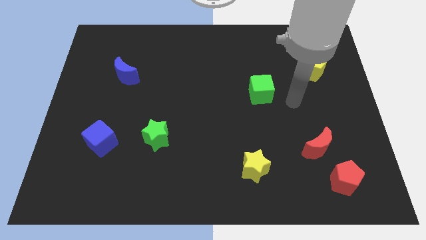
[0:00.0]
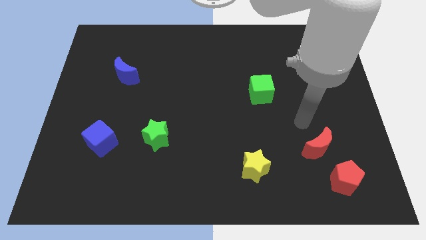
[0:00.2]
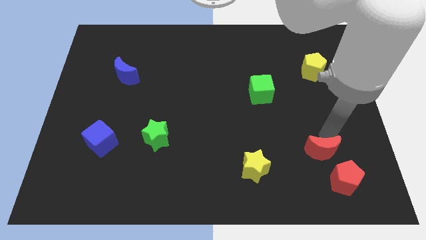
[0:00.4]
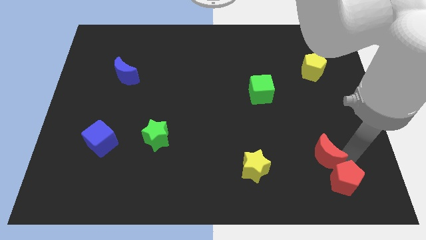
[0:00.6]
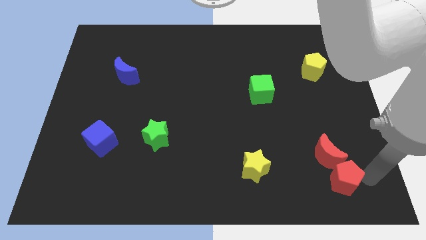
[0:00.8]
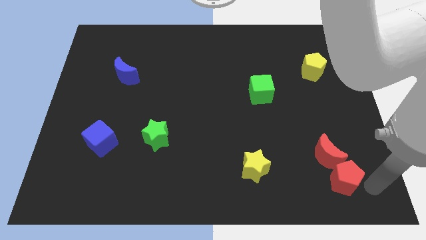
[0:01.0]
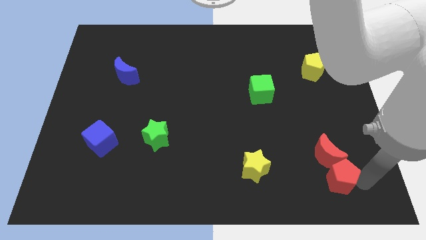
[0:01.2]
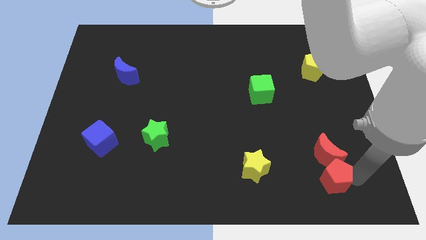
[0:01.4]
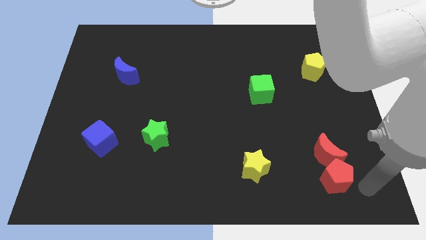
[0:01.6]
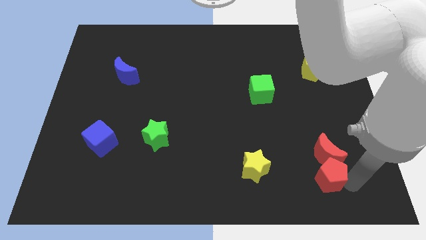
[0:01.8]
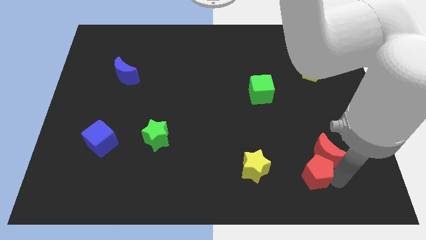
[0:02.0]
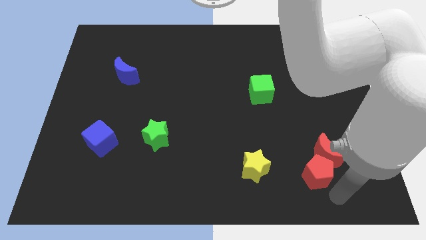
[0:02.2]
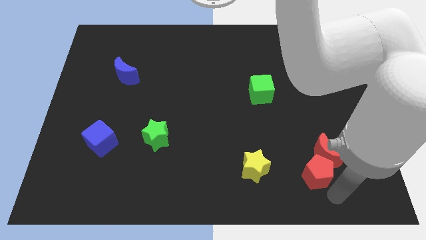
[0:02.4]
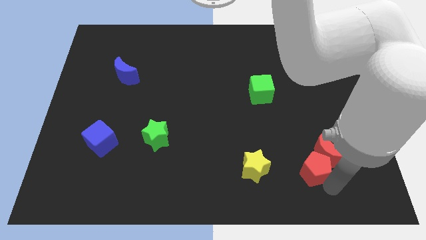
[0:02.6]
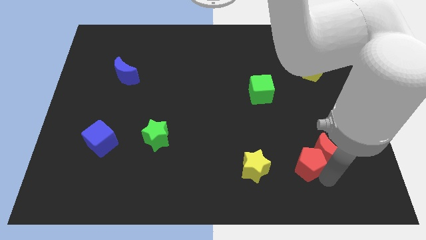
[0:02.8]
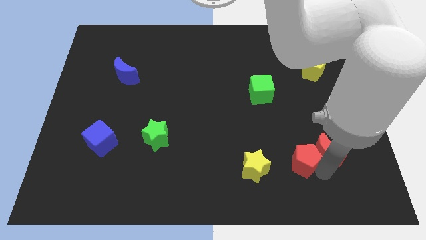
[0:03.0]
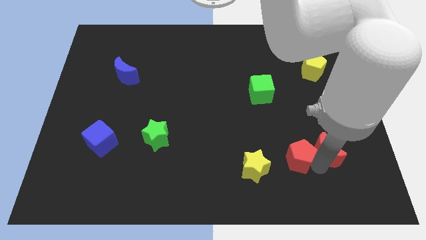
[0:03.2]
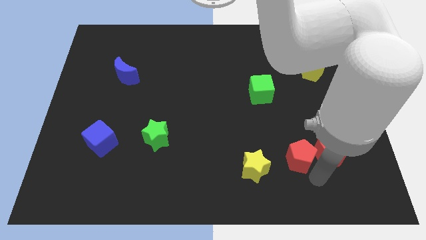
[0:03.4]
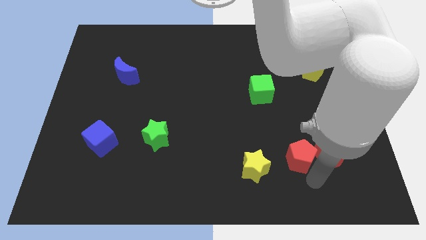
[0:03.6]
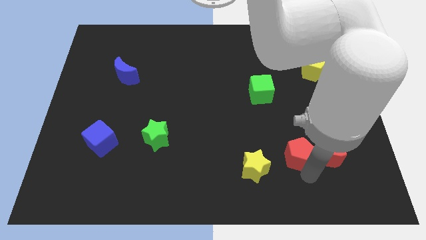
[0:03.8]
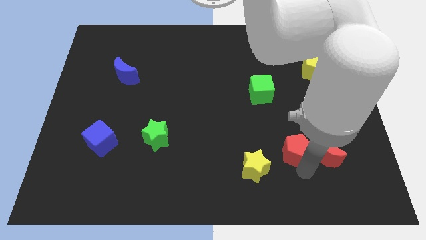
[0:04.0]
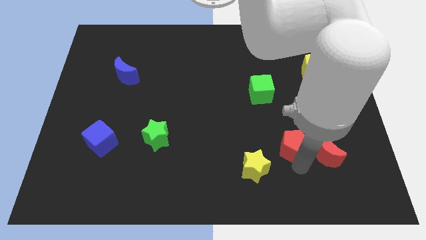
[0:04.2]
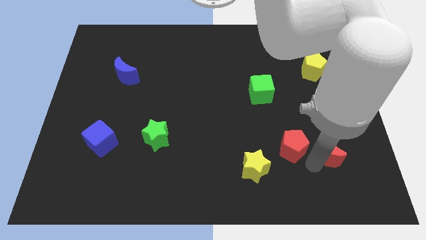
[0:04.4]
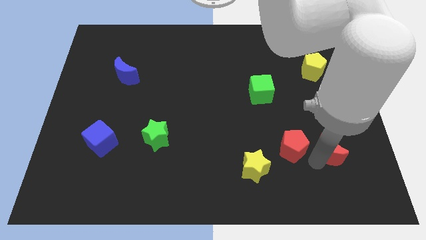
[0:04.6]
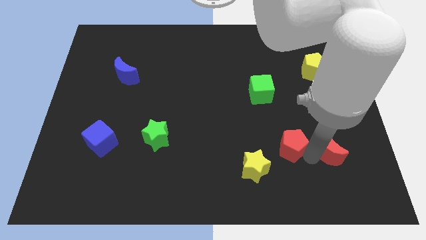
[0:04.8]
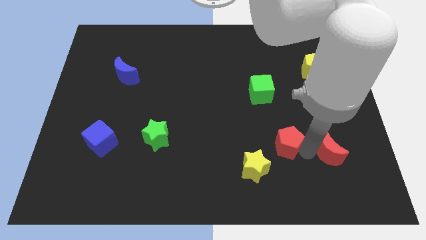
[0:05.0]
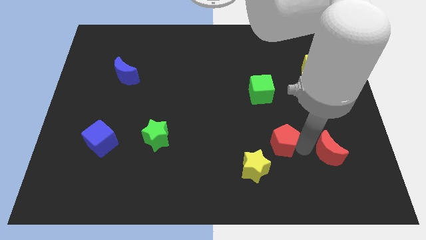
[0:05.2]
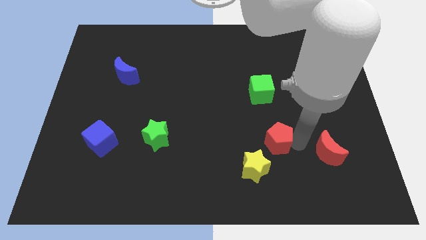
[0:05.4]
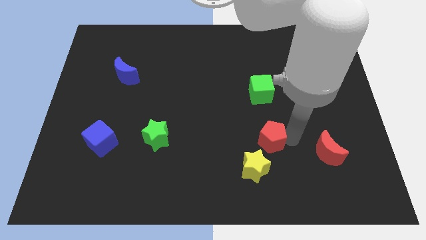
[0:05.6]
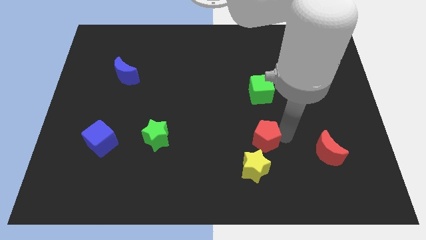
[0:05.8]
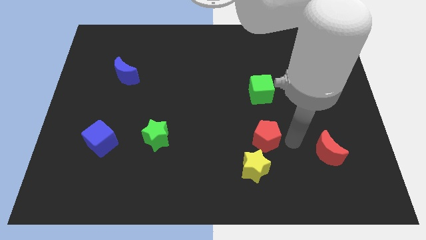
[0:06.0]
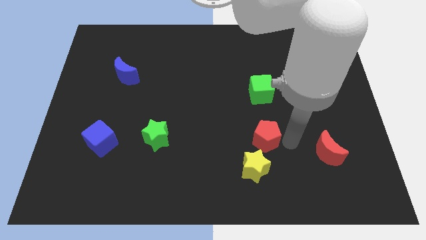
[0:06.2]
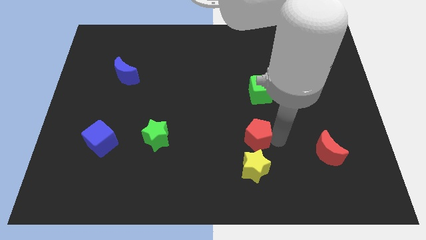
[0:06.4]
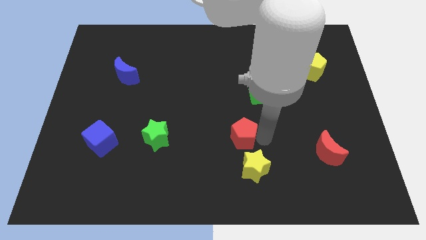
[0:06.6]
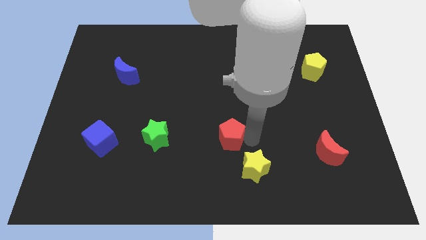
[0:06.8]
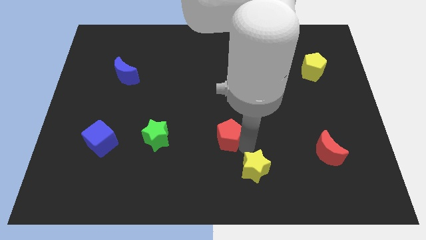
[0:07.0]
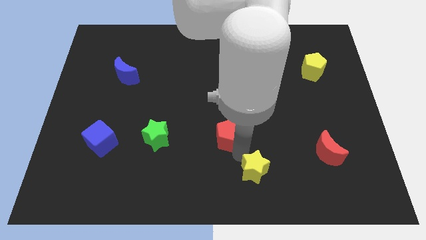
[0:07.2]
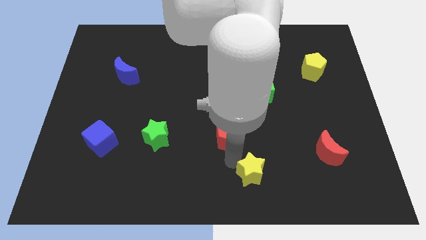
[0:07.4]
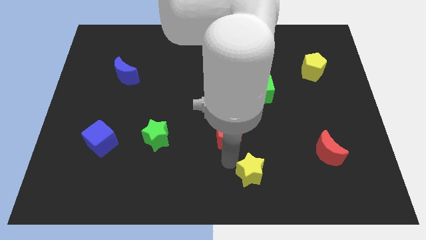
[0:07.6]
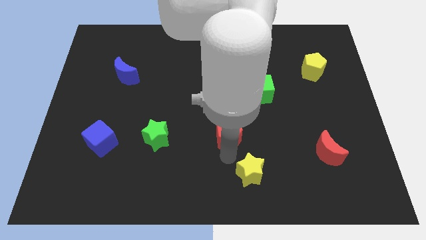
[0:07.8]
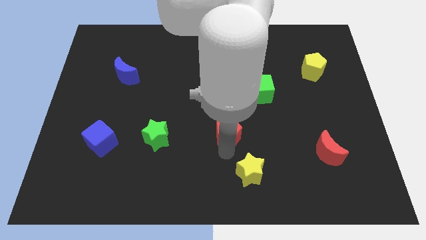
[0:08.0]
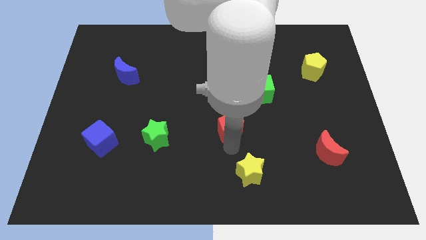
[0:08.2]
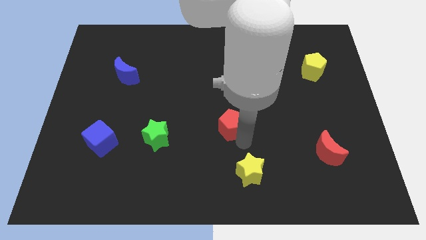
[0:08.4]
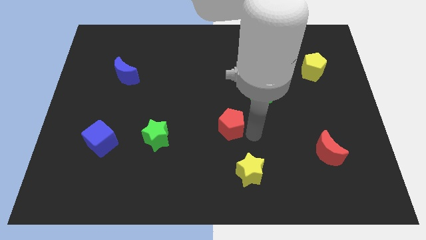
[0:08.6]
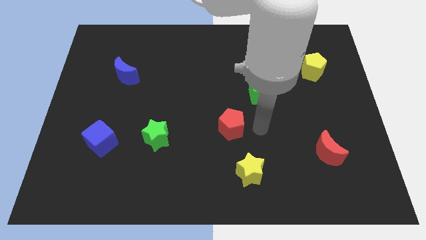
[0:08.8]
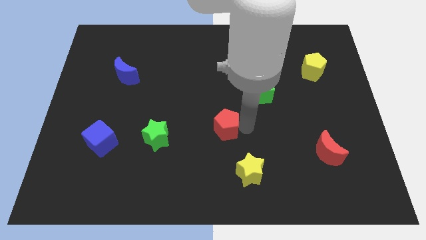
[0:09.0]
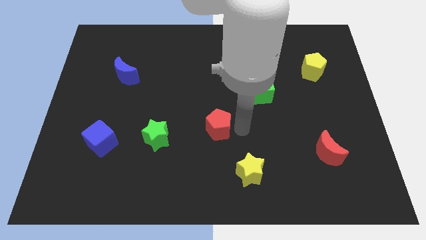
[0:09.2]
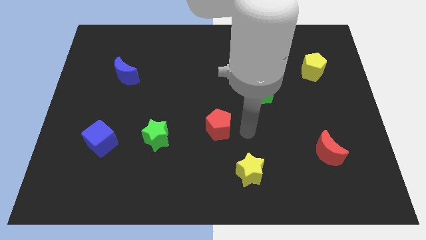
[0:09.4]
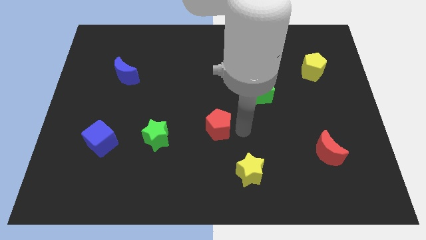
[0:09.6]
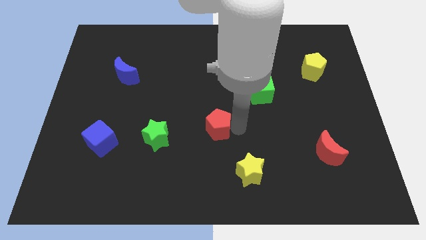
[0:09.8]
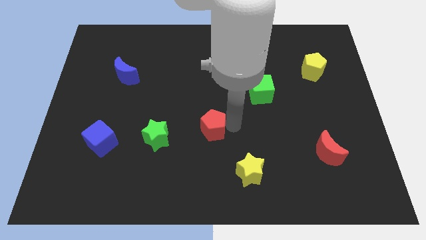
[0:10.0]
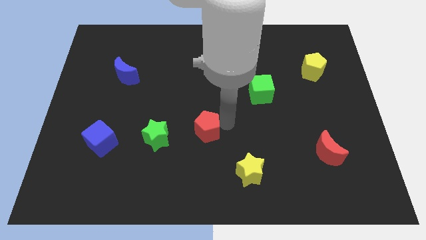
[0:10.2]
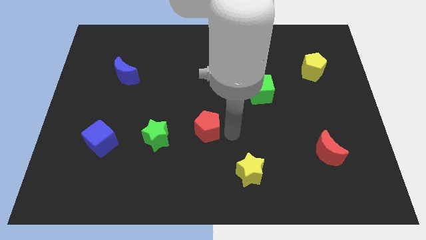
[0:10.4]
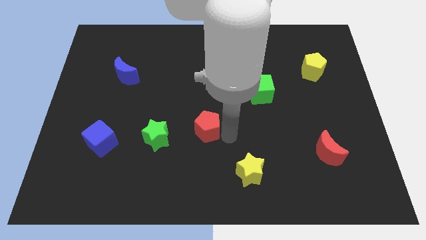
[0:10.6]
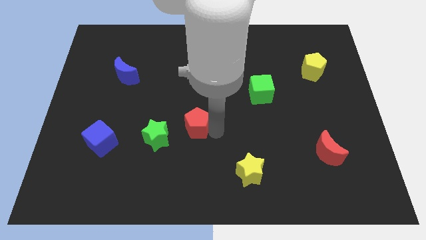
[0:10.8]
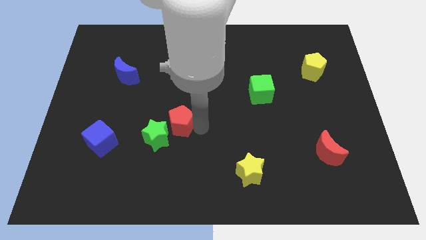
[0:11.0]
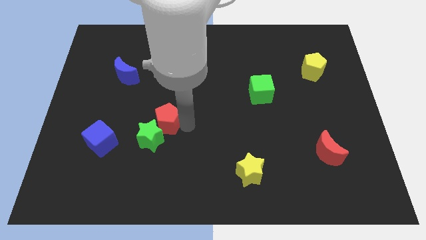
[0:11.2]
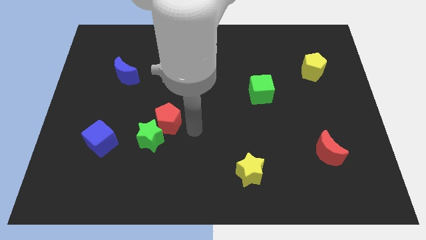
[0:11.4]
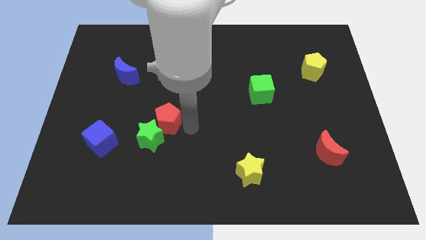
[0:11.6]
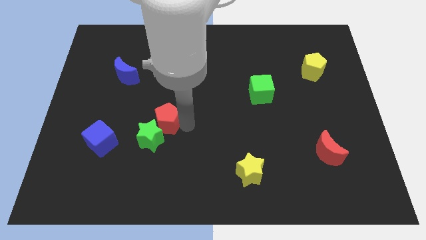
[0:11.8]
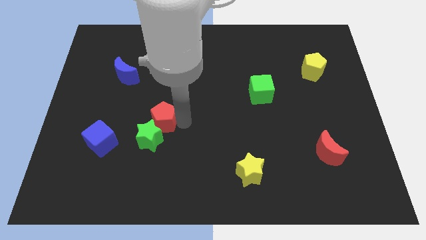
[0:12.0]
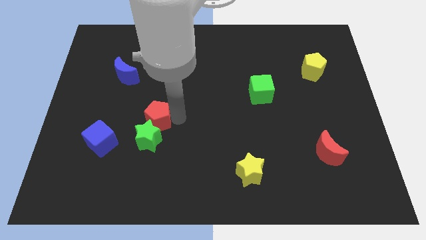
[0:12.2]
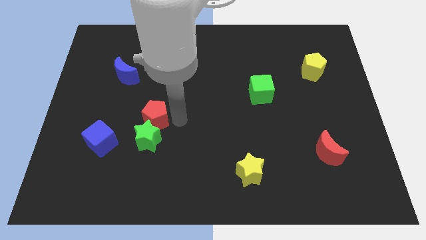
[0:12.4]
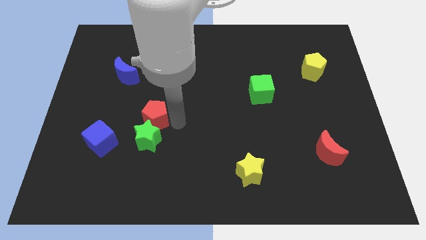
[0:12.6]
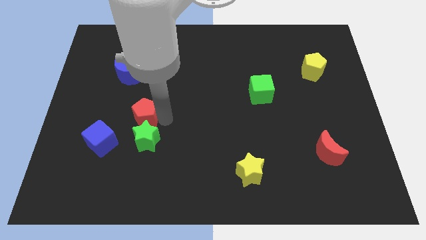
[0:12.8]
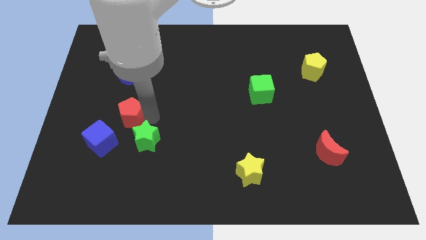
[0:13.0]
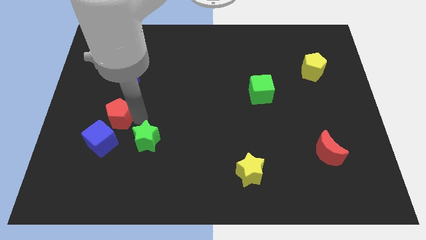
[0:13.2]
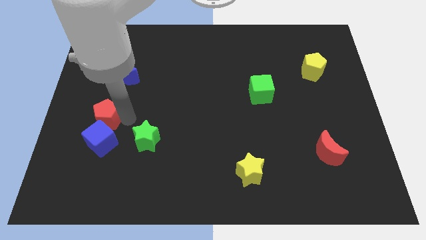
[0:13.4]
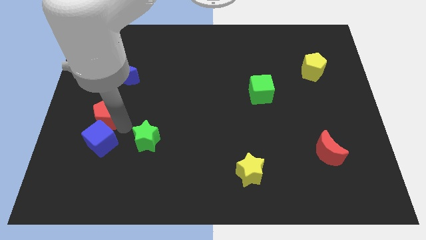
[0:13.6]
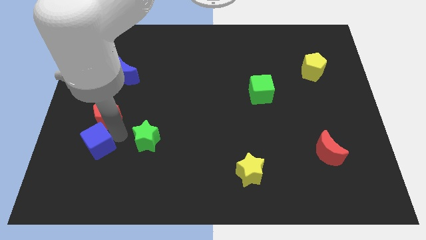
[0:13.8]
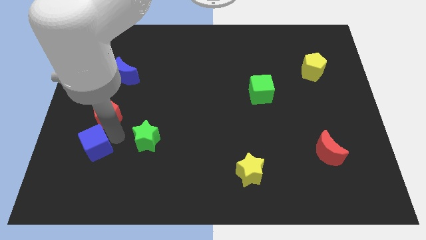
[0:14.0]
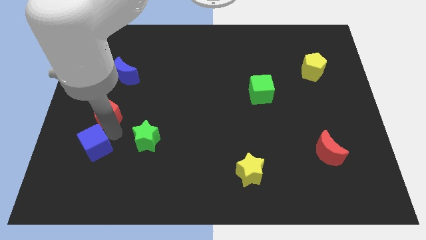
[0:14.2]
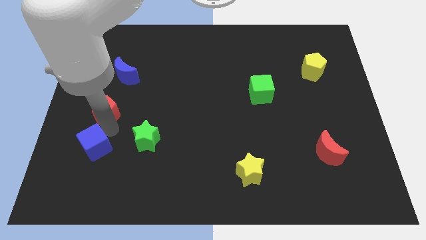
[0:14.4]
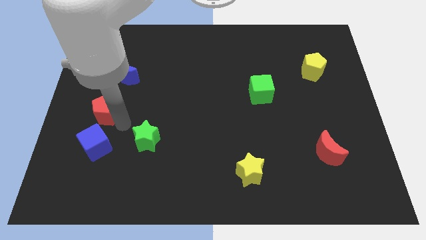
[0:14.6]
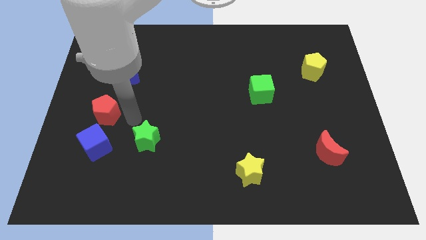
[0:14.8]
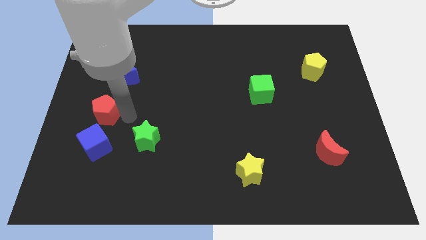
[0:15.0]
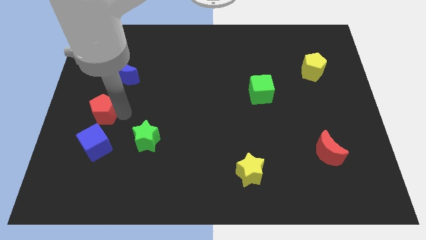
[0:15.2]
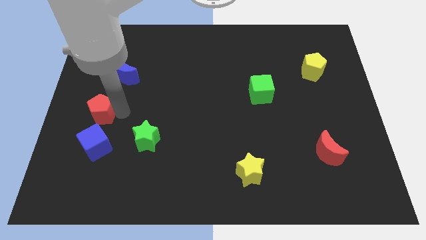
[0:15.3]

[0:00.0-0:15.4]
move the red pentagon to the left side
